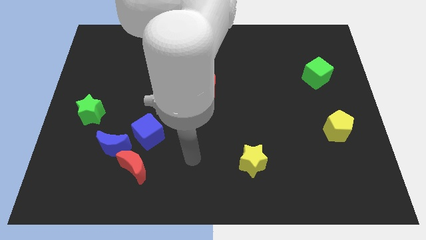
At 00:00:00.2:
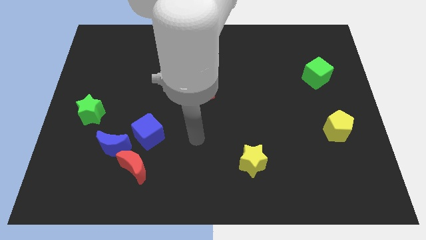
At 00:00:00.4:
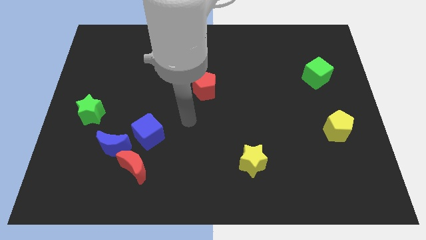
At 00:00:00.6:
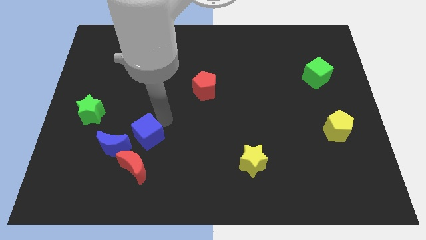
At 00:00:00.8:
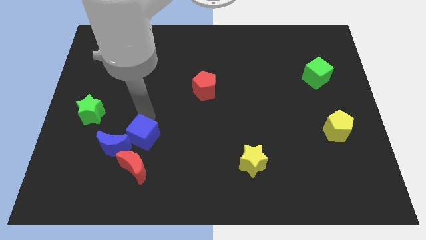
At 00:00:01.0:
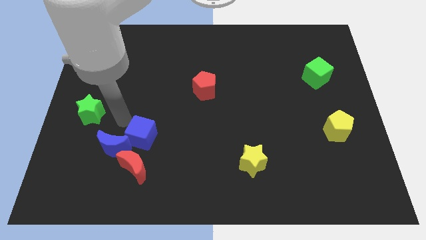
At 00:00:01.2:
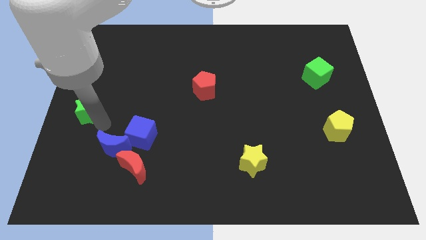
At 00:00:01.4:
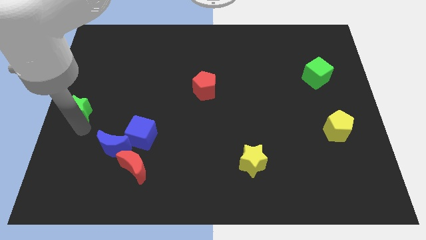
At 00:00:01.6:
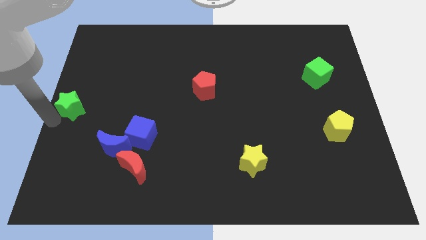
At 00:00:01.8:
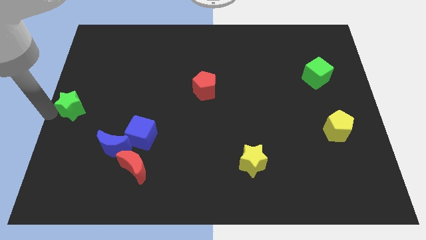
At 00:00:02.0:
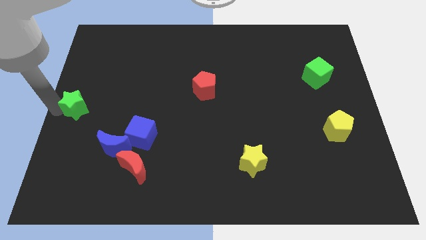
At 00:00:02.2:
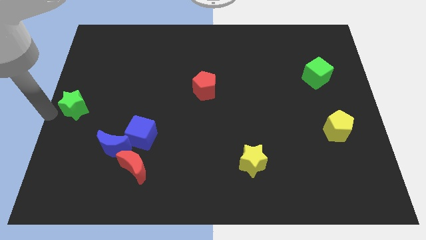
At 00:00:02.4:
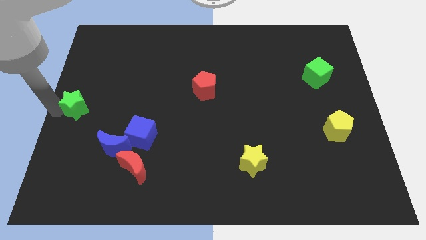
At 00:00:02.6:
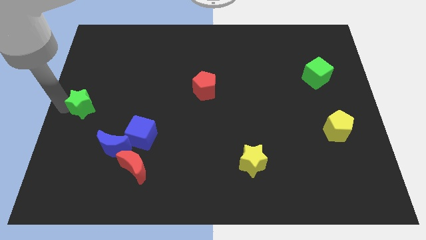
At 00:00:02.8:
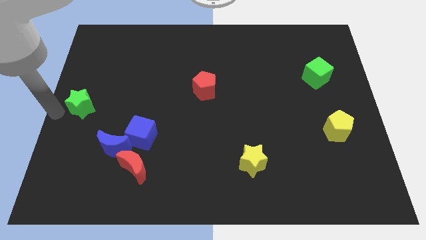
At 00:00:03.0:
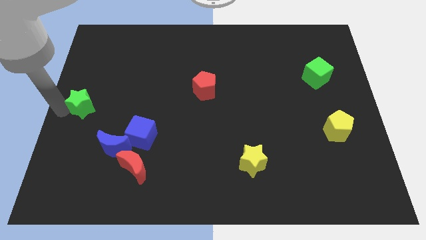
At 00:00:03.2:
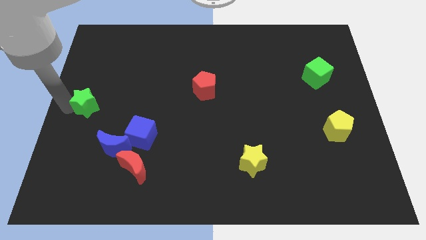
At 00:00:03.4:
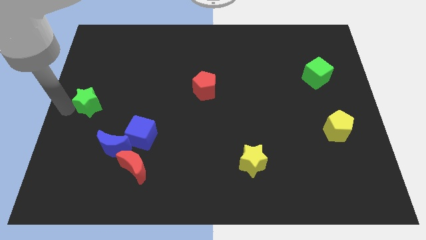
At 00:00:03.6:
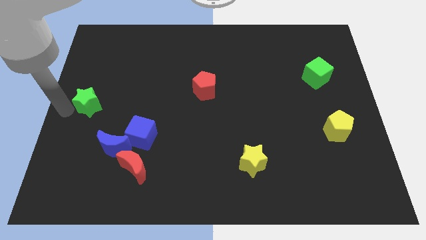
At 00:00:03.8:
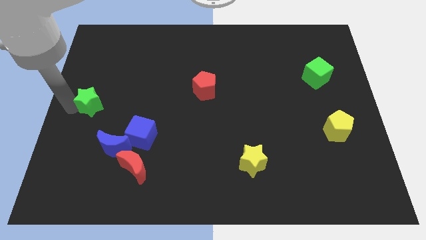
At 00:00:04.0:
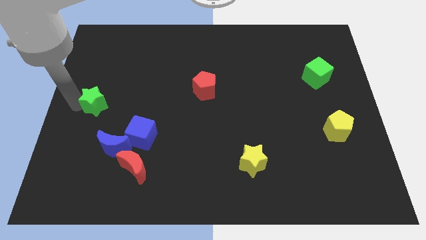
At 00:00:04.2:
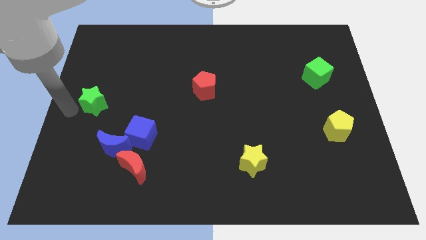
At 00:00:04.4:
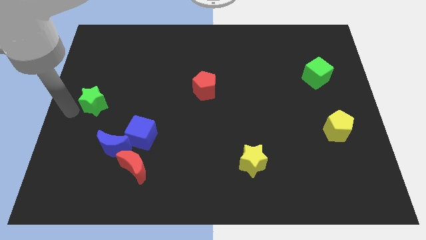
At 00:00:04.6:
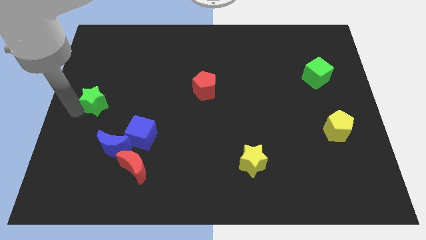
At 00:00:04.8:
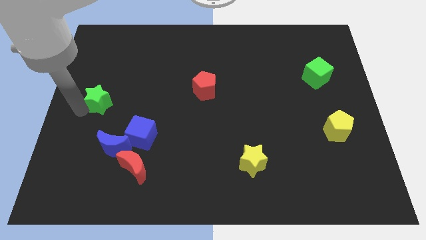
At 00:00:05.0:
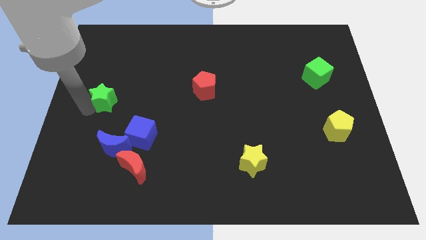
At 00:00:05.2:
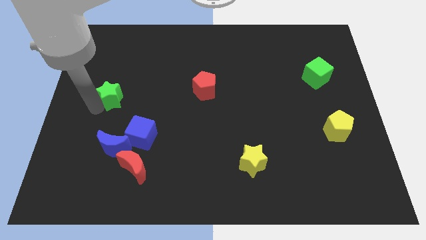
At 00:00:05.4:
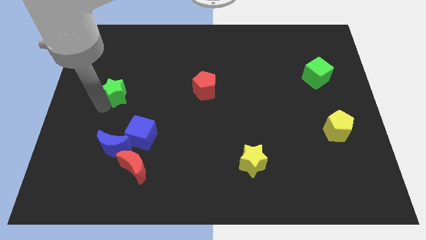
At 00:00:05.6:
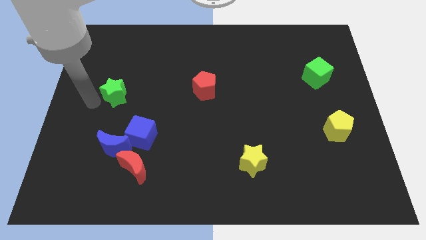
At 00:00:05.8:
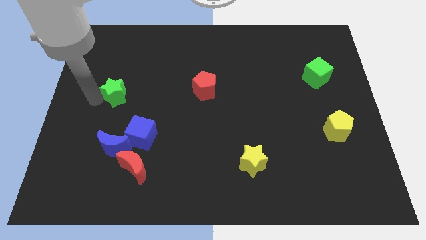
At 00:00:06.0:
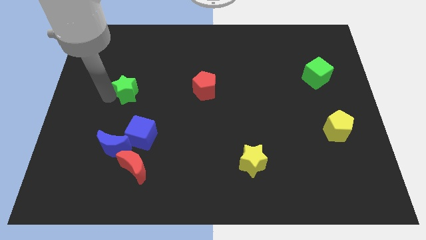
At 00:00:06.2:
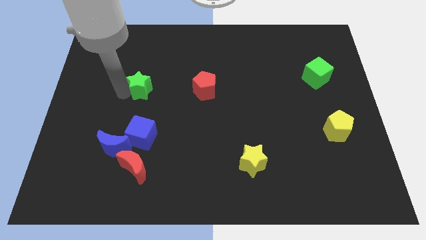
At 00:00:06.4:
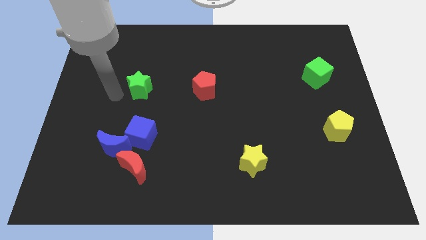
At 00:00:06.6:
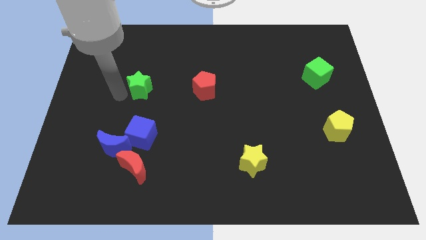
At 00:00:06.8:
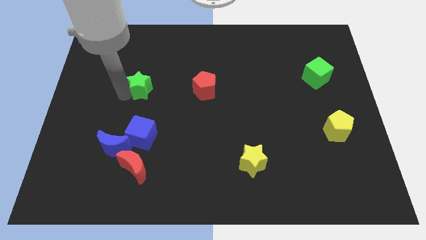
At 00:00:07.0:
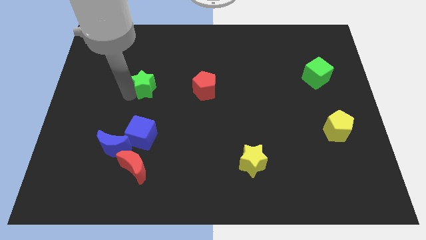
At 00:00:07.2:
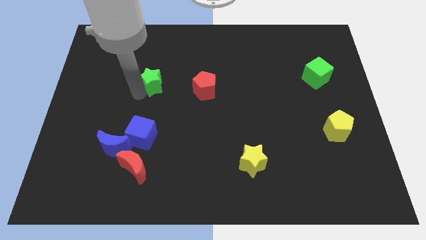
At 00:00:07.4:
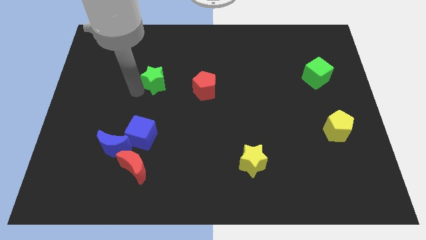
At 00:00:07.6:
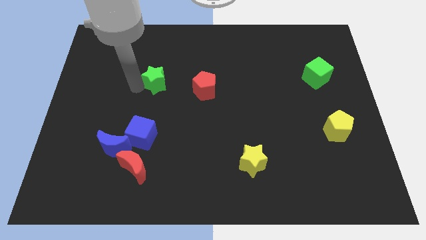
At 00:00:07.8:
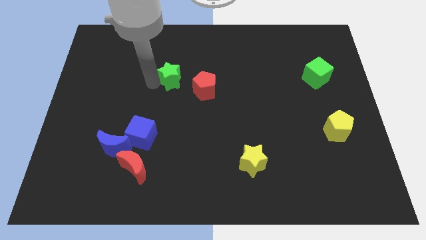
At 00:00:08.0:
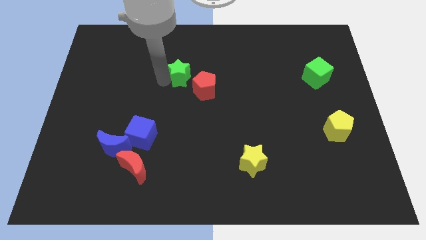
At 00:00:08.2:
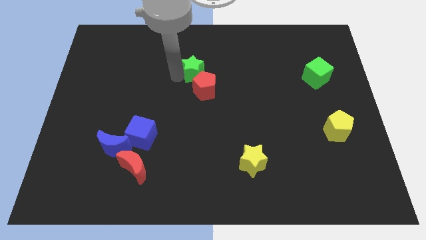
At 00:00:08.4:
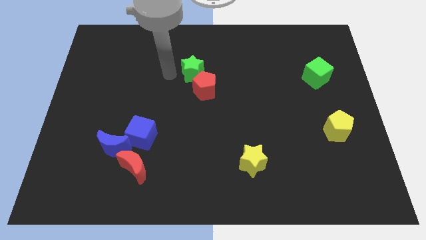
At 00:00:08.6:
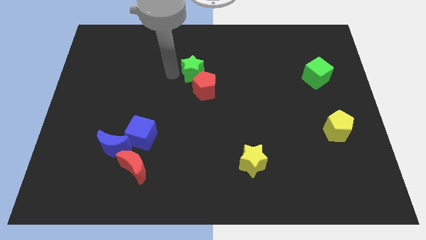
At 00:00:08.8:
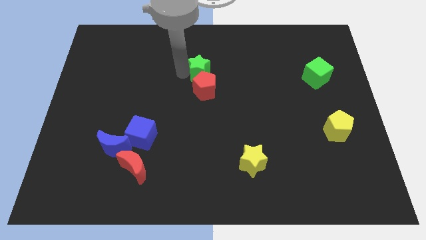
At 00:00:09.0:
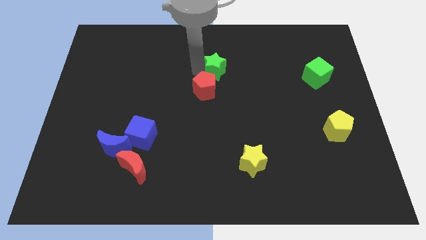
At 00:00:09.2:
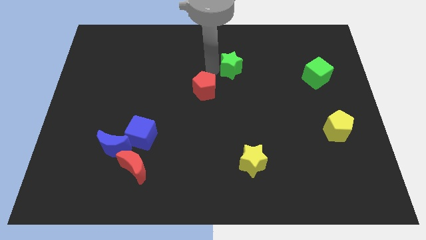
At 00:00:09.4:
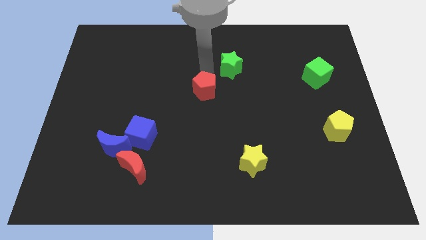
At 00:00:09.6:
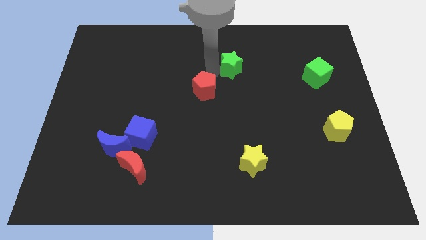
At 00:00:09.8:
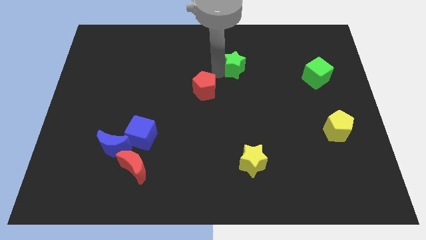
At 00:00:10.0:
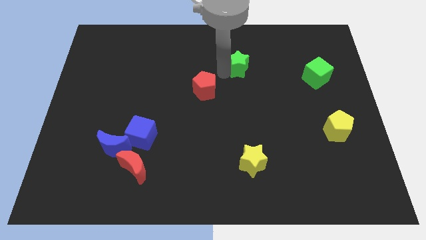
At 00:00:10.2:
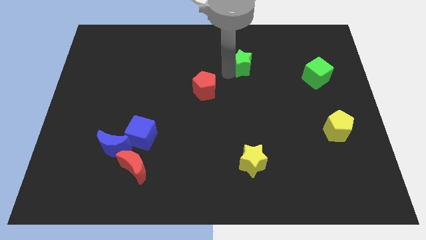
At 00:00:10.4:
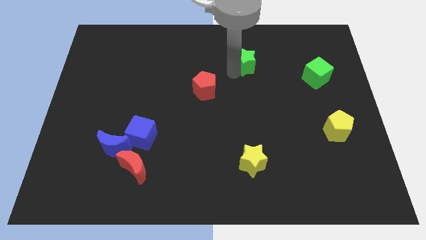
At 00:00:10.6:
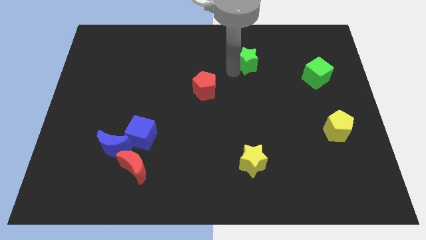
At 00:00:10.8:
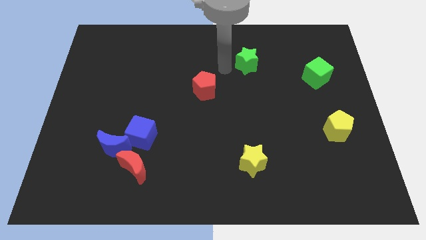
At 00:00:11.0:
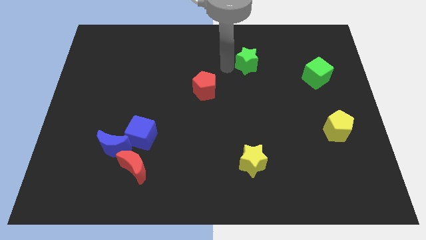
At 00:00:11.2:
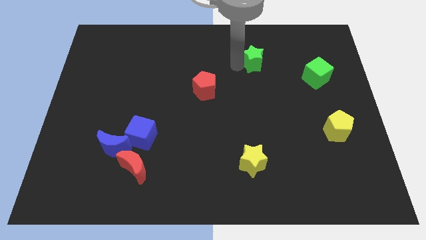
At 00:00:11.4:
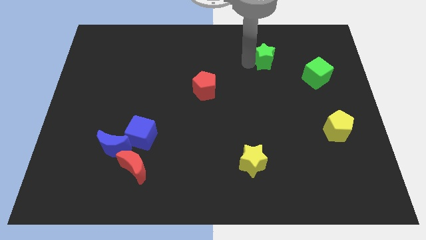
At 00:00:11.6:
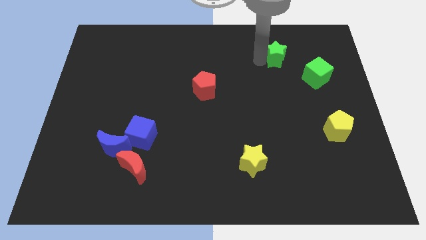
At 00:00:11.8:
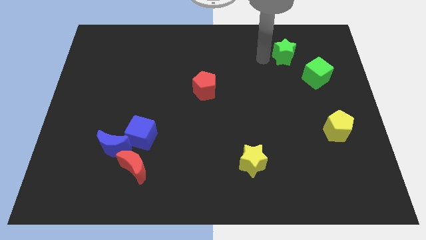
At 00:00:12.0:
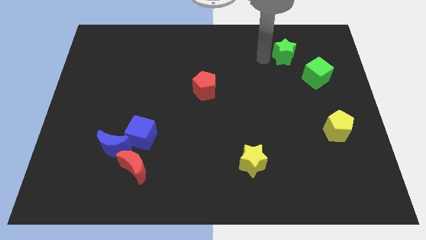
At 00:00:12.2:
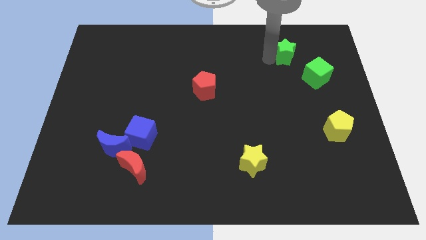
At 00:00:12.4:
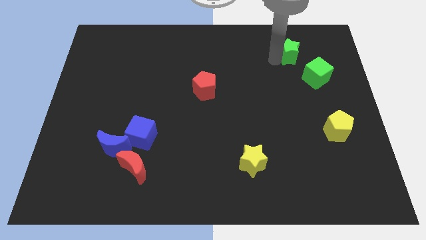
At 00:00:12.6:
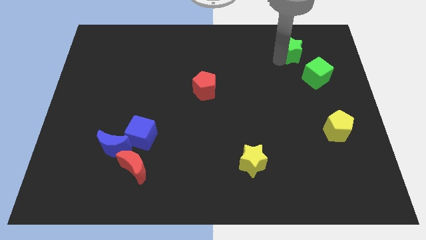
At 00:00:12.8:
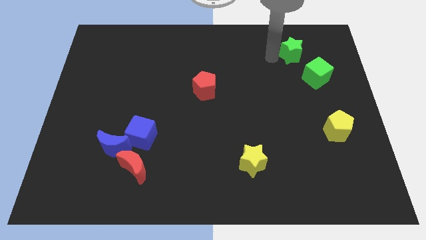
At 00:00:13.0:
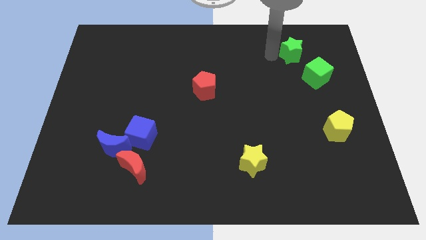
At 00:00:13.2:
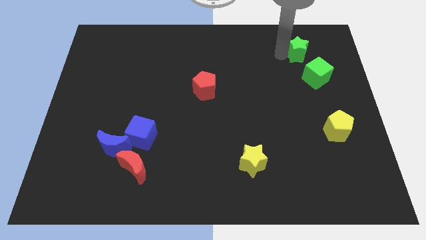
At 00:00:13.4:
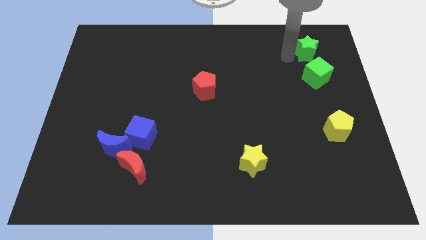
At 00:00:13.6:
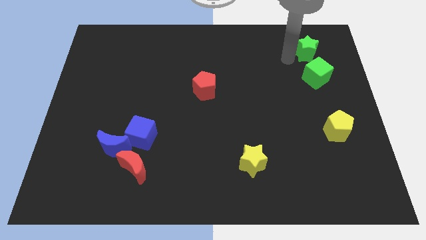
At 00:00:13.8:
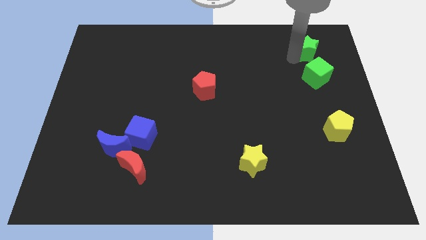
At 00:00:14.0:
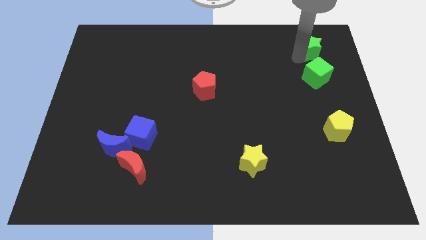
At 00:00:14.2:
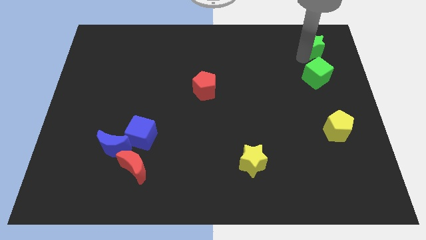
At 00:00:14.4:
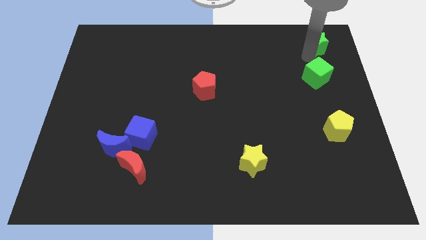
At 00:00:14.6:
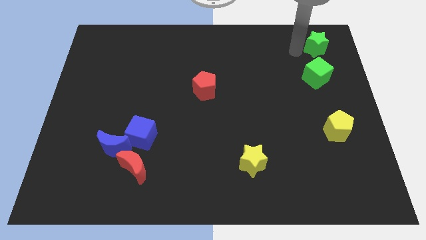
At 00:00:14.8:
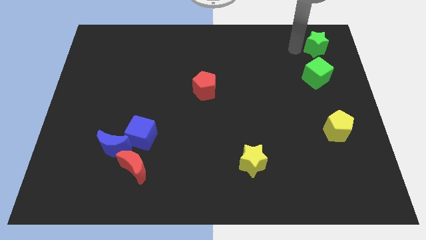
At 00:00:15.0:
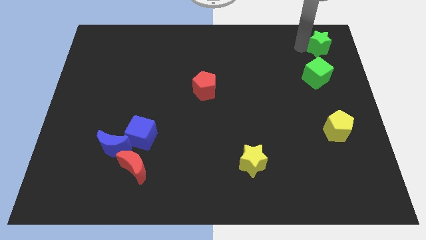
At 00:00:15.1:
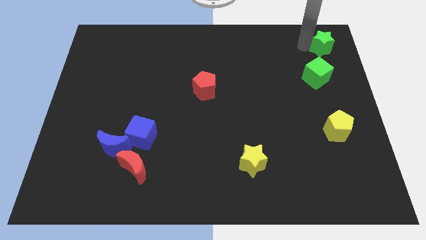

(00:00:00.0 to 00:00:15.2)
slide the green star to the top right corner

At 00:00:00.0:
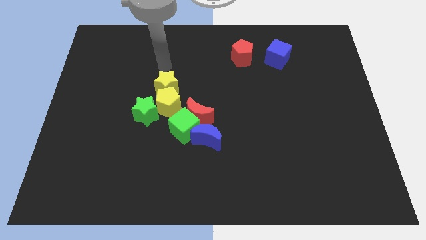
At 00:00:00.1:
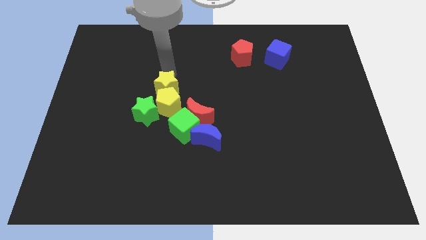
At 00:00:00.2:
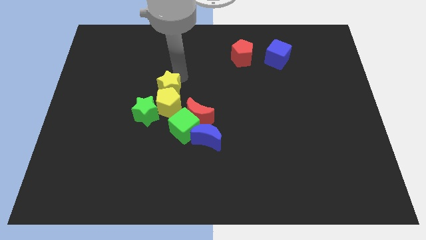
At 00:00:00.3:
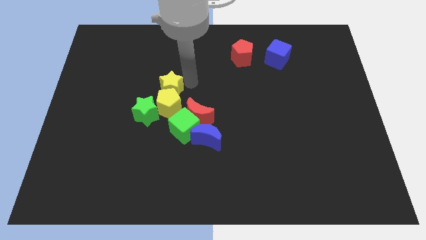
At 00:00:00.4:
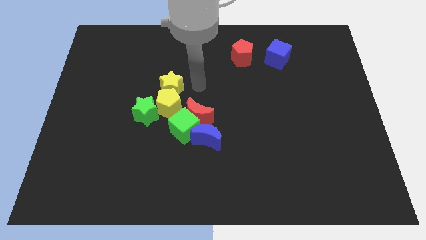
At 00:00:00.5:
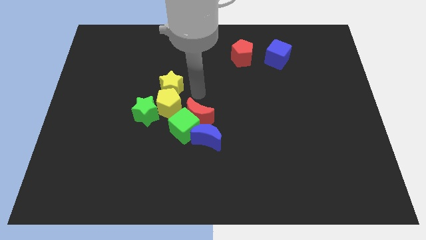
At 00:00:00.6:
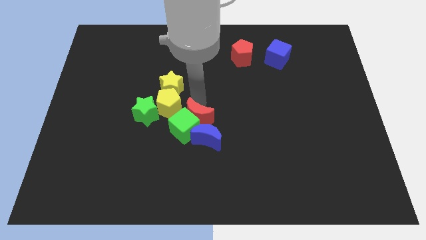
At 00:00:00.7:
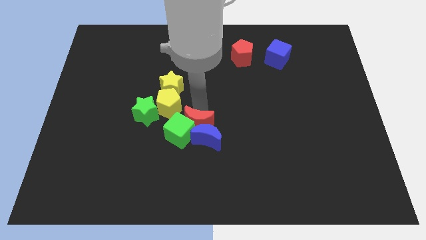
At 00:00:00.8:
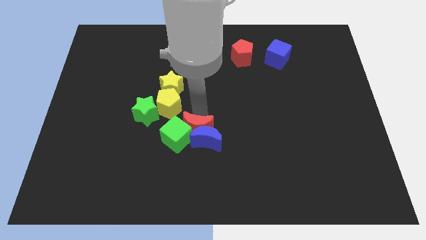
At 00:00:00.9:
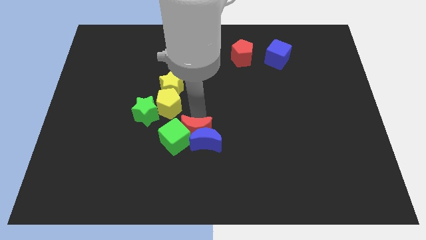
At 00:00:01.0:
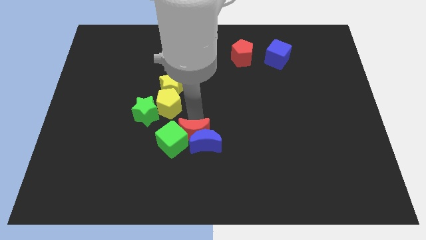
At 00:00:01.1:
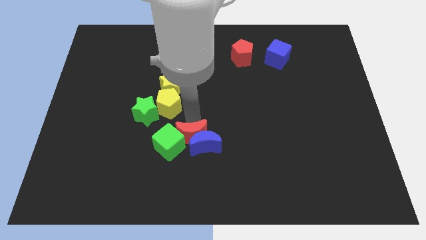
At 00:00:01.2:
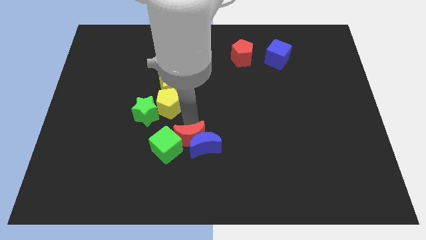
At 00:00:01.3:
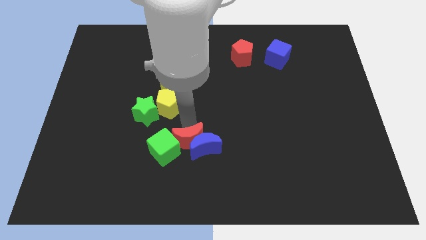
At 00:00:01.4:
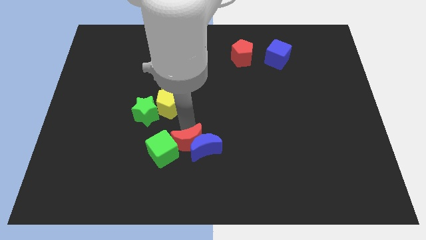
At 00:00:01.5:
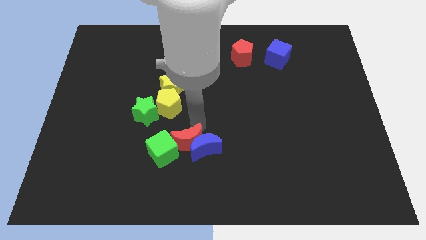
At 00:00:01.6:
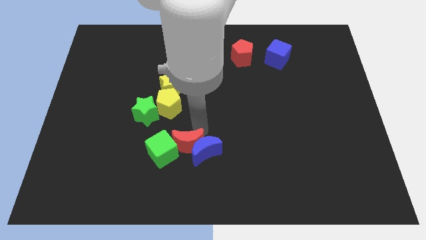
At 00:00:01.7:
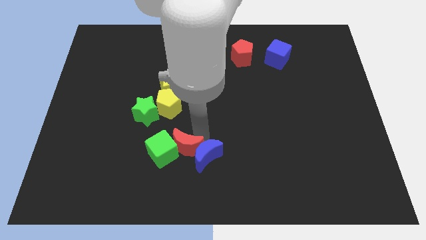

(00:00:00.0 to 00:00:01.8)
push the blue moon to the bottom
